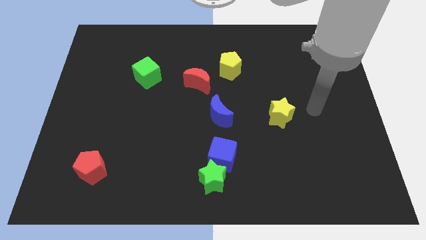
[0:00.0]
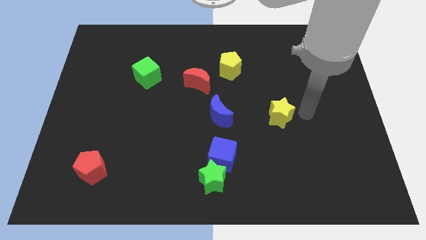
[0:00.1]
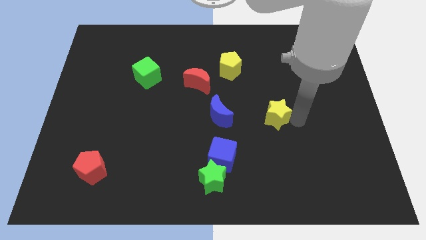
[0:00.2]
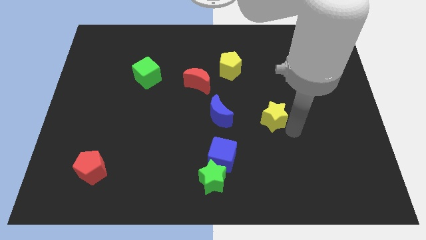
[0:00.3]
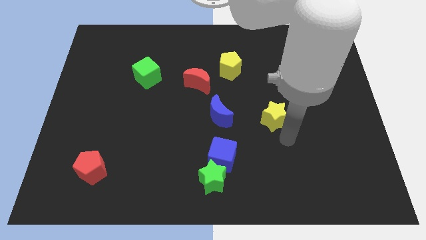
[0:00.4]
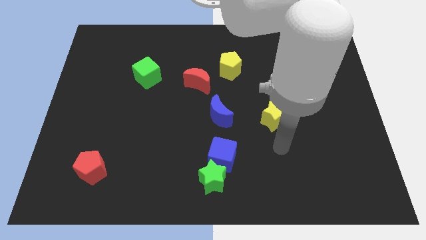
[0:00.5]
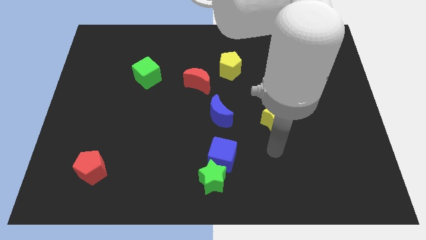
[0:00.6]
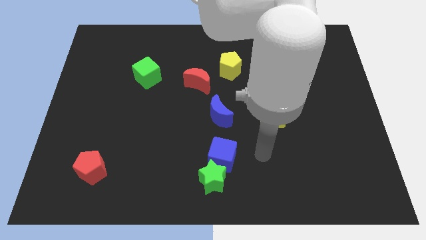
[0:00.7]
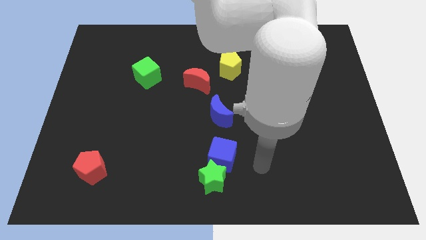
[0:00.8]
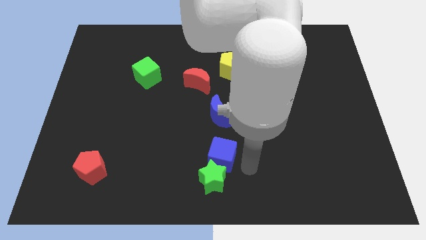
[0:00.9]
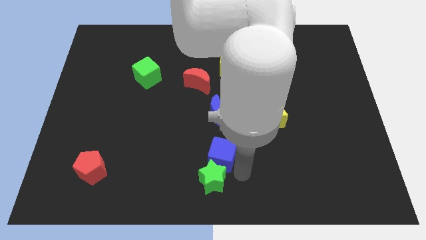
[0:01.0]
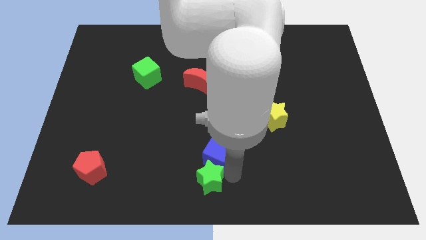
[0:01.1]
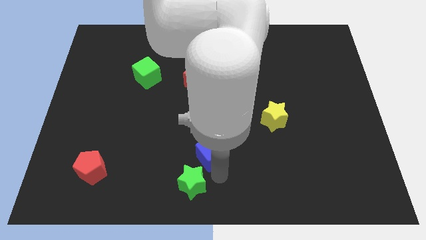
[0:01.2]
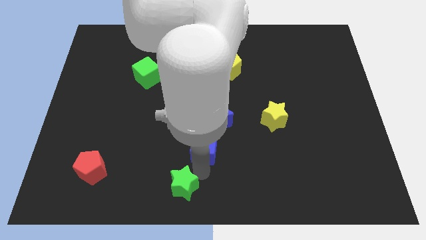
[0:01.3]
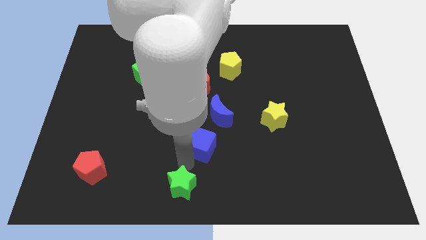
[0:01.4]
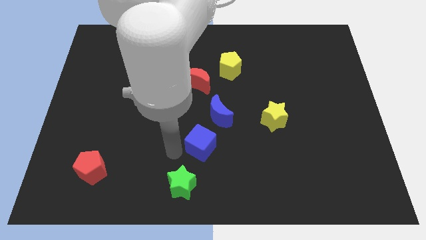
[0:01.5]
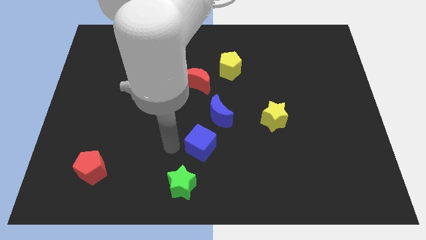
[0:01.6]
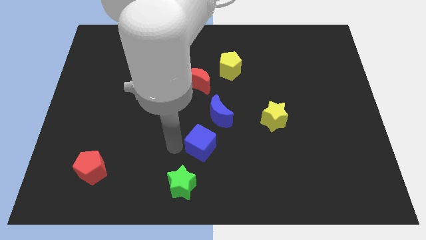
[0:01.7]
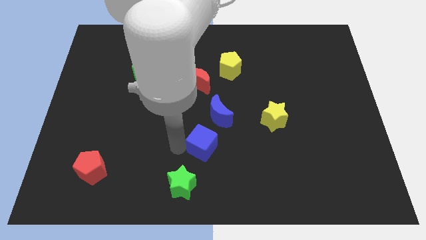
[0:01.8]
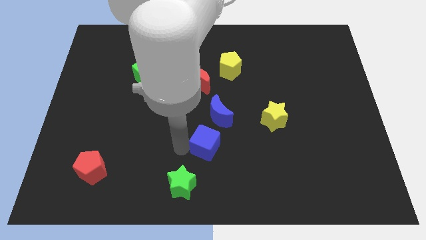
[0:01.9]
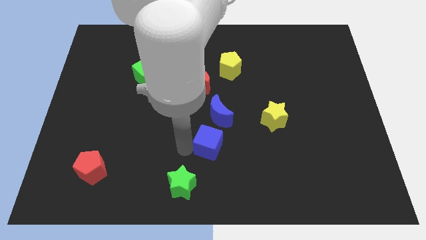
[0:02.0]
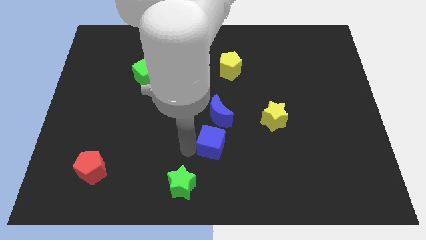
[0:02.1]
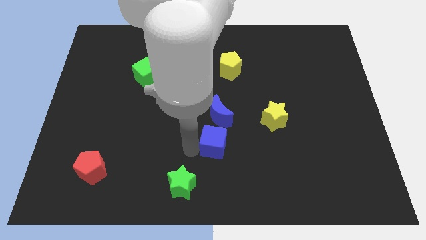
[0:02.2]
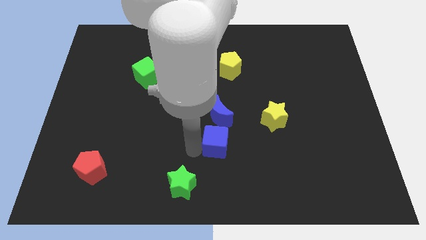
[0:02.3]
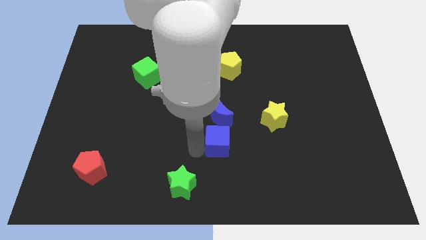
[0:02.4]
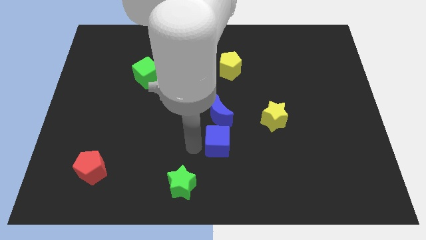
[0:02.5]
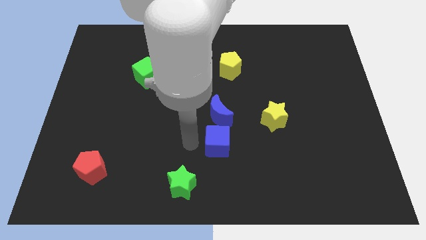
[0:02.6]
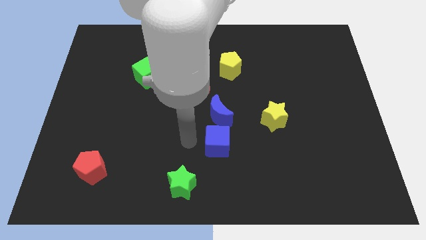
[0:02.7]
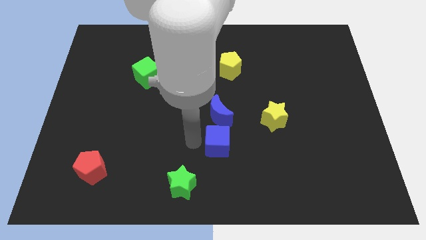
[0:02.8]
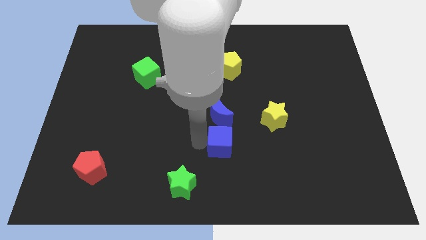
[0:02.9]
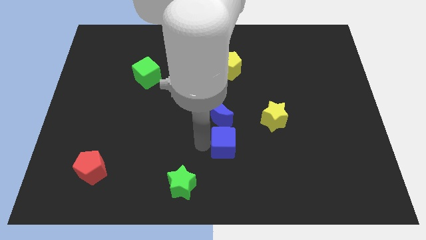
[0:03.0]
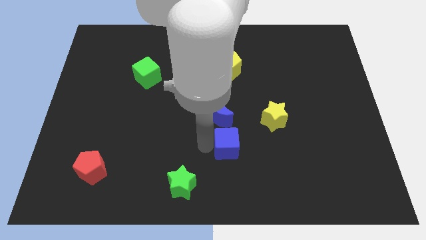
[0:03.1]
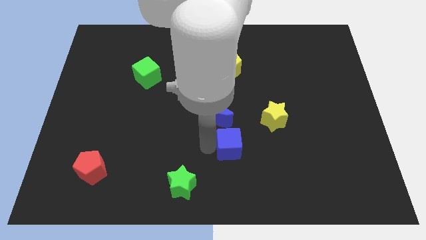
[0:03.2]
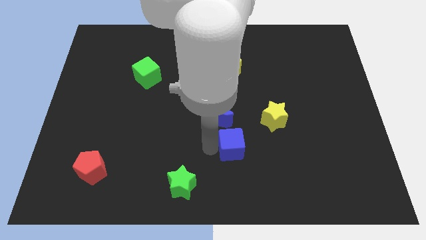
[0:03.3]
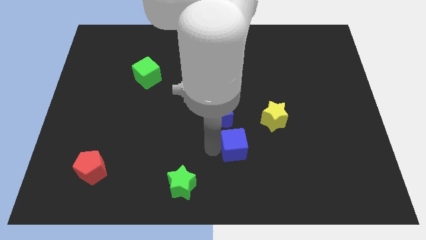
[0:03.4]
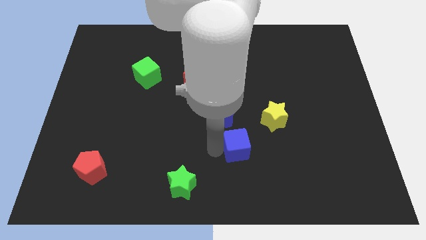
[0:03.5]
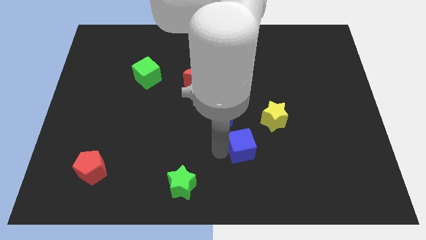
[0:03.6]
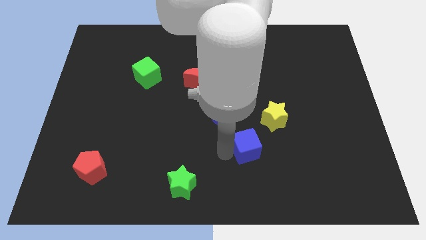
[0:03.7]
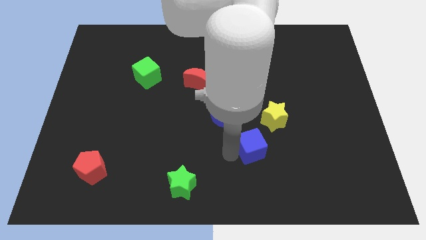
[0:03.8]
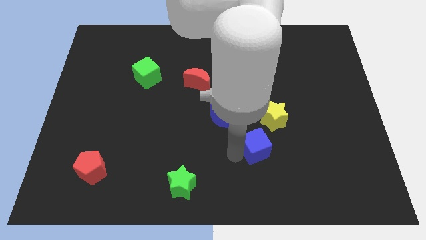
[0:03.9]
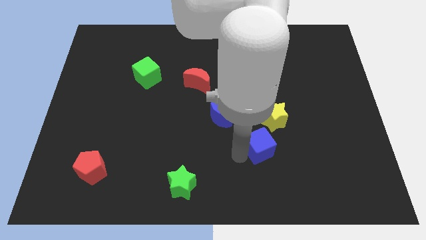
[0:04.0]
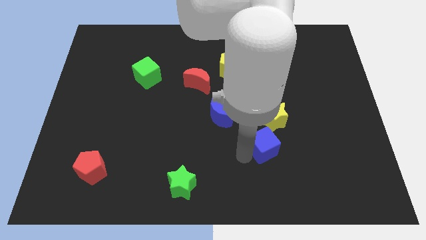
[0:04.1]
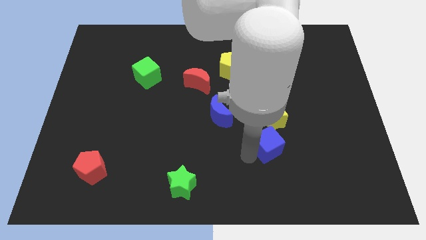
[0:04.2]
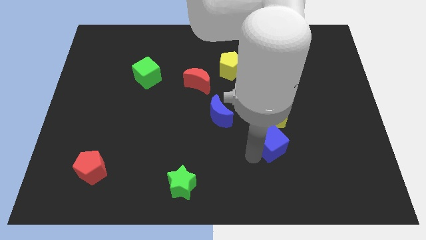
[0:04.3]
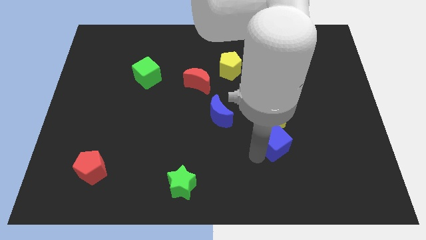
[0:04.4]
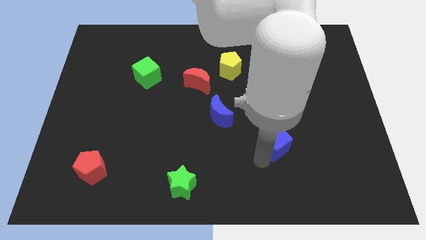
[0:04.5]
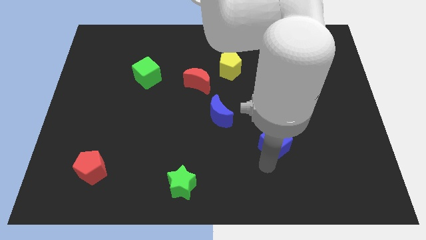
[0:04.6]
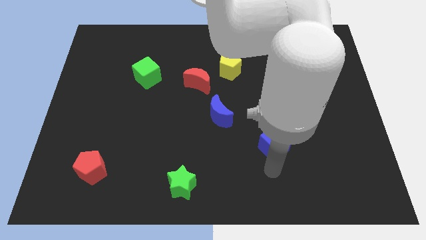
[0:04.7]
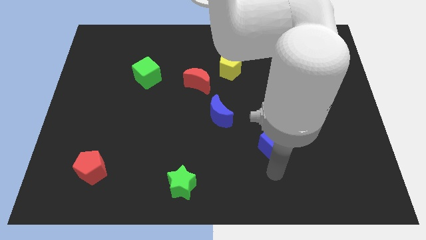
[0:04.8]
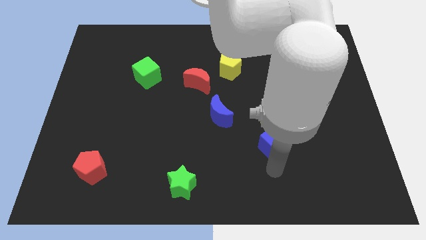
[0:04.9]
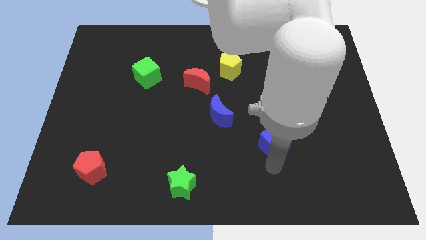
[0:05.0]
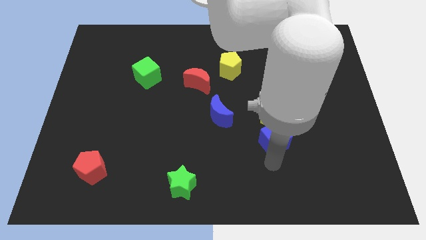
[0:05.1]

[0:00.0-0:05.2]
move the blue cube towards the yellow star

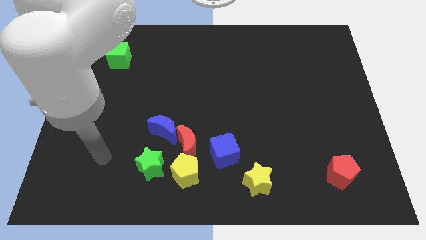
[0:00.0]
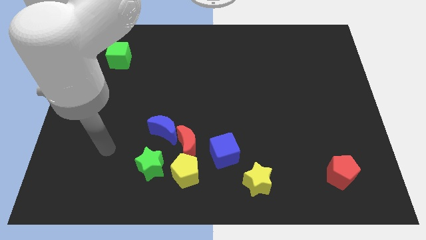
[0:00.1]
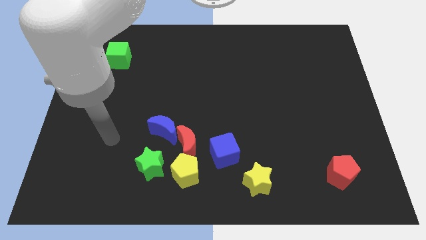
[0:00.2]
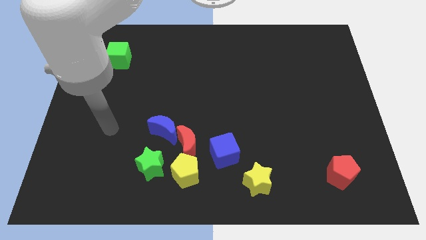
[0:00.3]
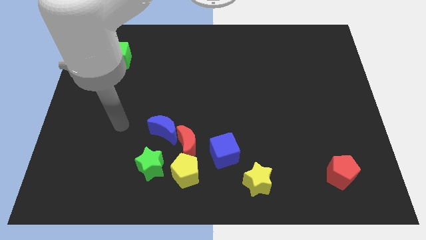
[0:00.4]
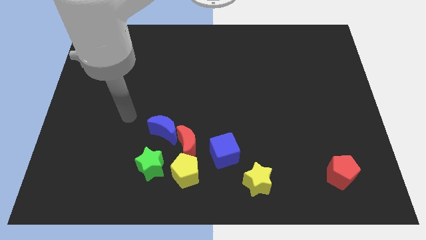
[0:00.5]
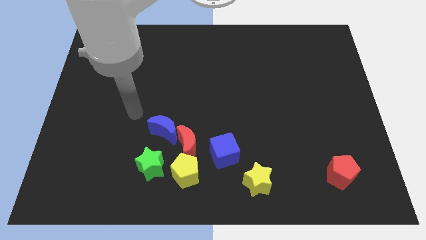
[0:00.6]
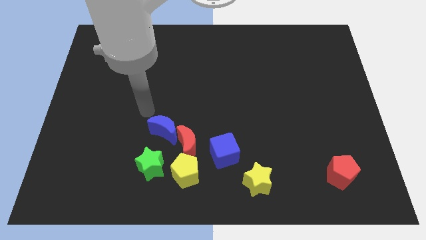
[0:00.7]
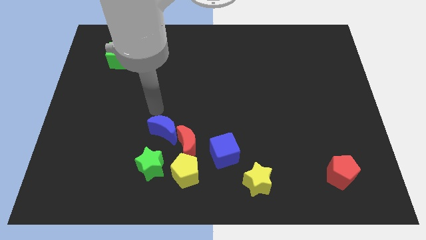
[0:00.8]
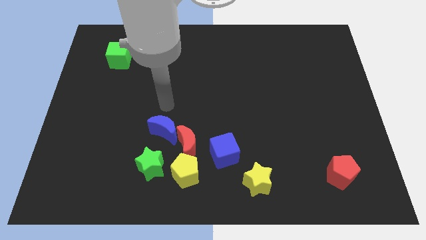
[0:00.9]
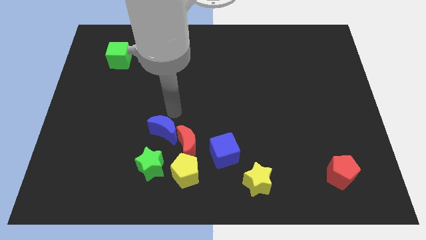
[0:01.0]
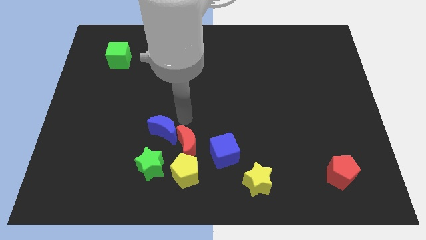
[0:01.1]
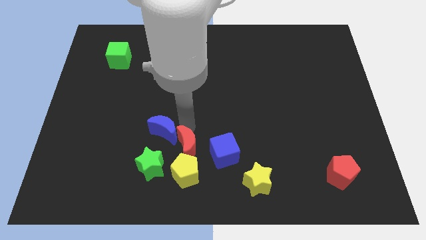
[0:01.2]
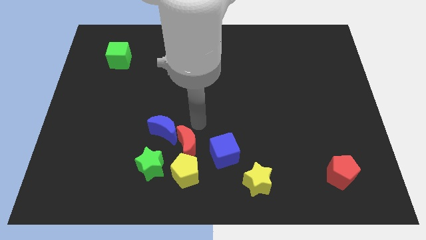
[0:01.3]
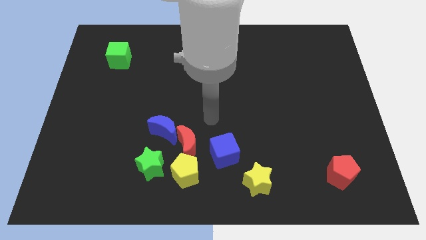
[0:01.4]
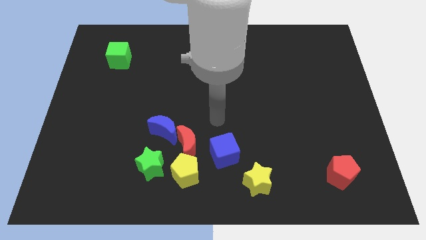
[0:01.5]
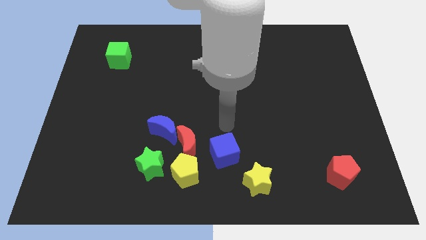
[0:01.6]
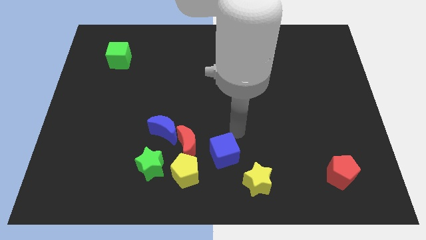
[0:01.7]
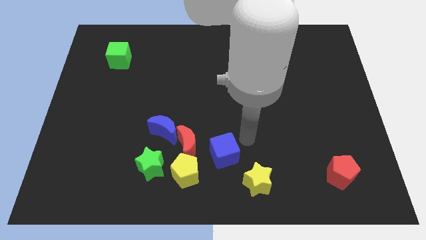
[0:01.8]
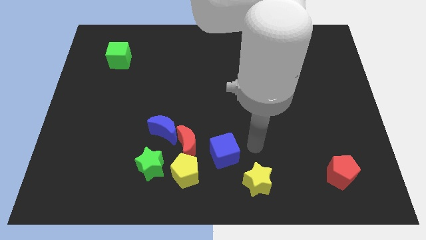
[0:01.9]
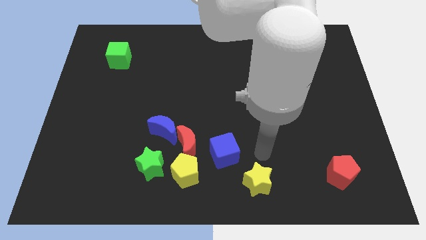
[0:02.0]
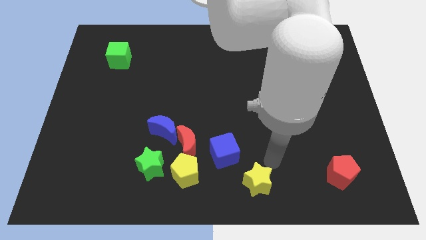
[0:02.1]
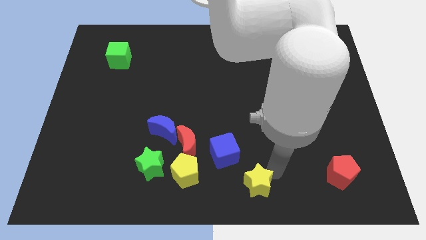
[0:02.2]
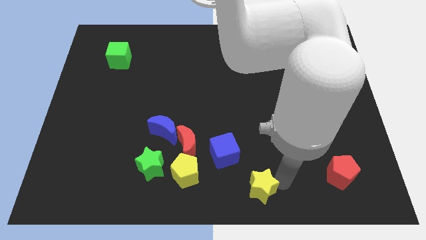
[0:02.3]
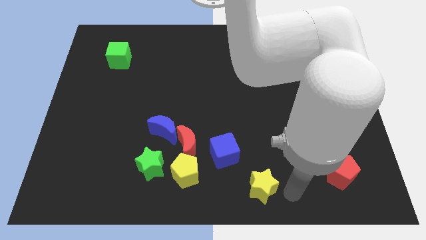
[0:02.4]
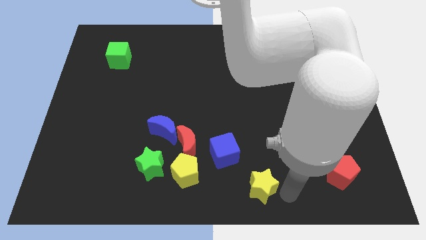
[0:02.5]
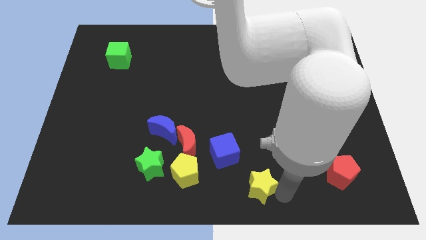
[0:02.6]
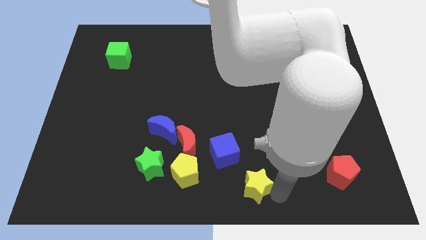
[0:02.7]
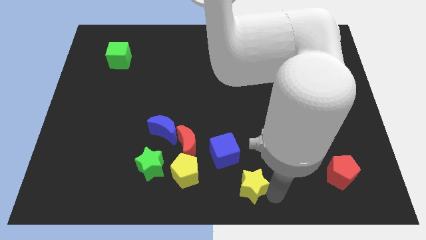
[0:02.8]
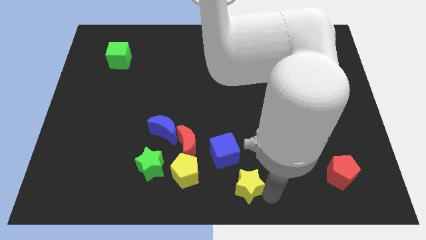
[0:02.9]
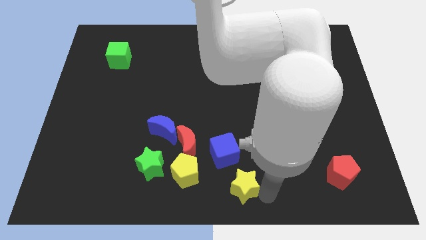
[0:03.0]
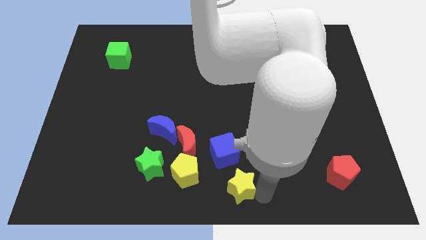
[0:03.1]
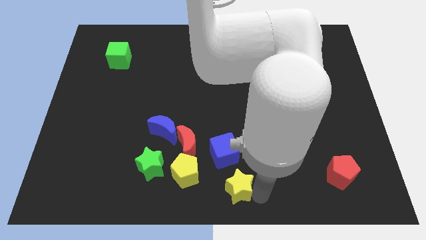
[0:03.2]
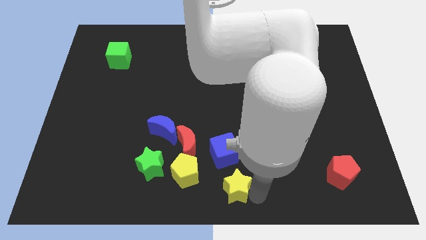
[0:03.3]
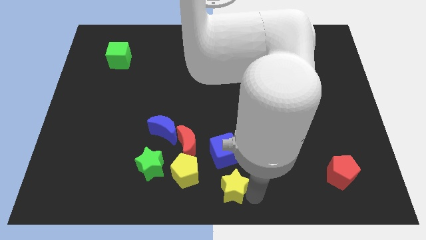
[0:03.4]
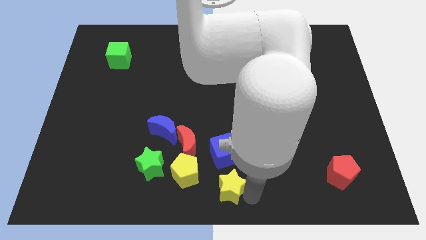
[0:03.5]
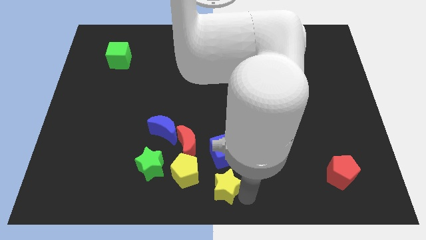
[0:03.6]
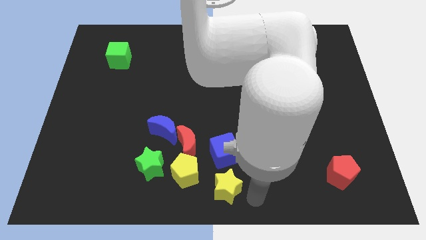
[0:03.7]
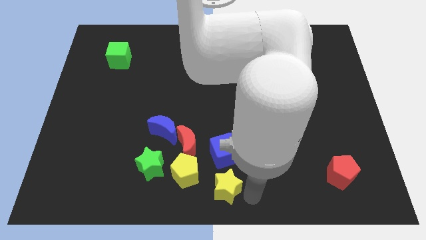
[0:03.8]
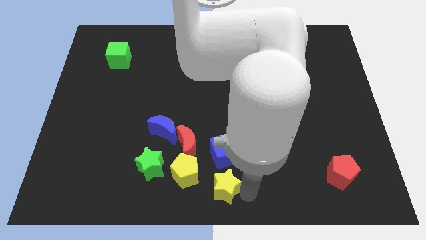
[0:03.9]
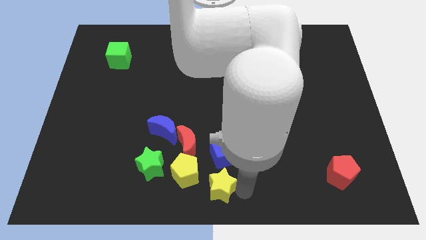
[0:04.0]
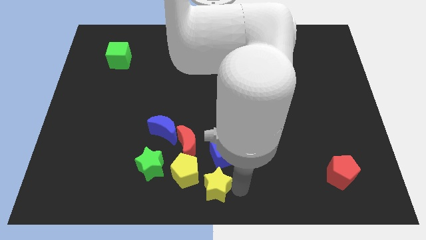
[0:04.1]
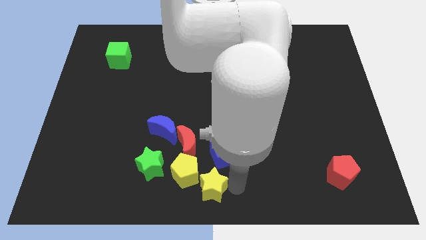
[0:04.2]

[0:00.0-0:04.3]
put the yellow star to the yellow pentagon
